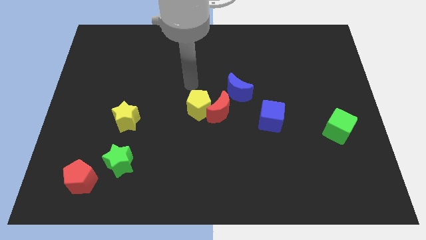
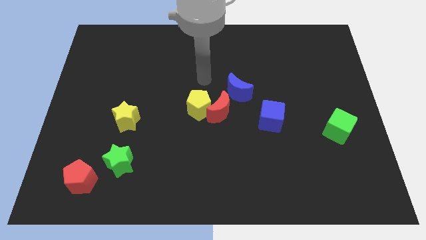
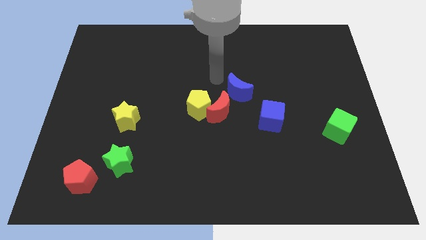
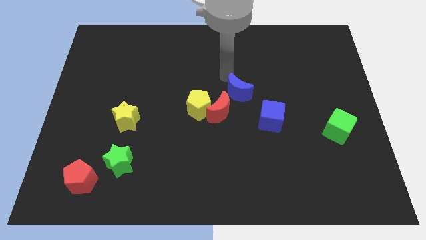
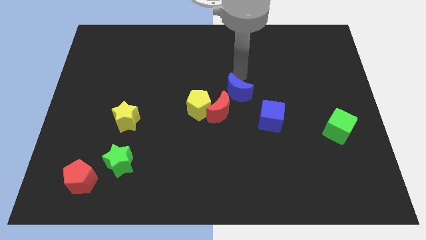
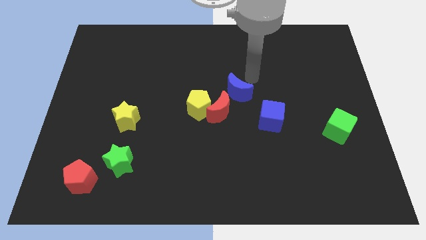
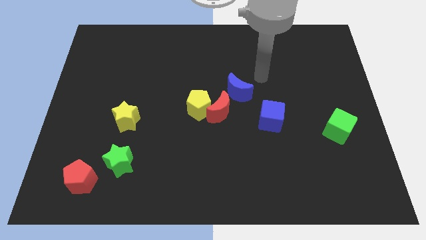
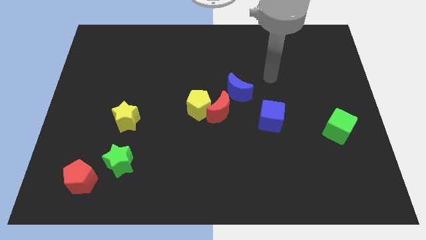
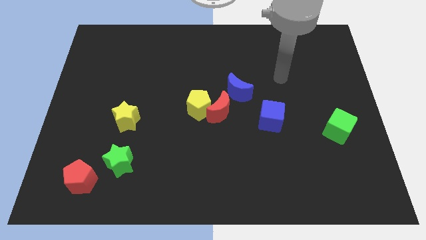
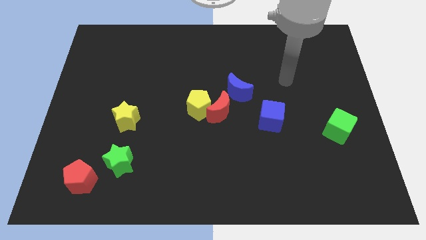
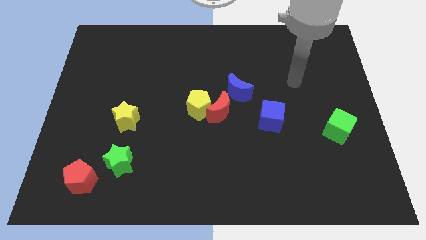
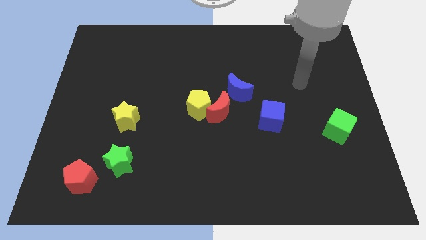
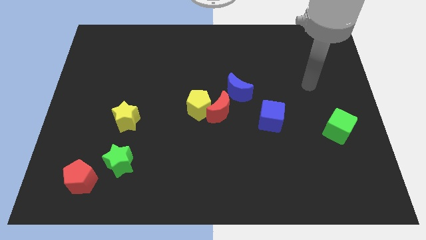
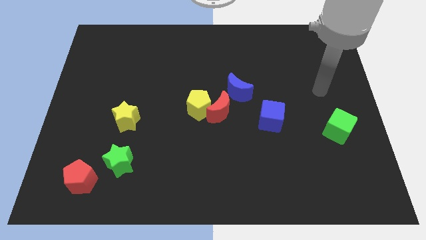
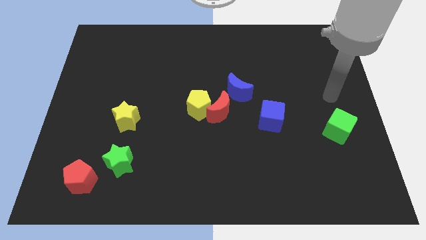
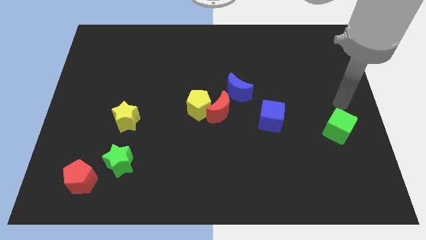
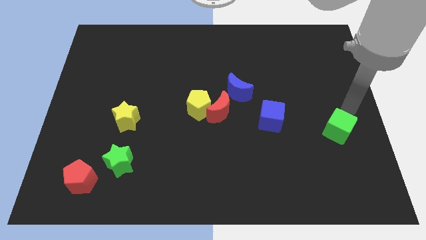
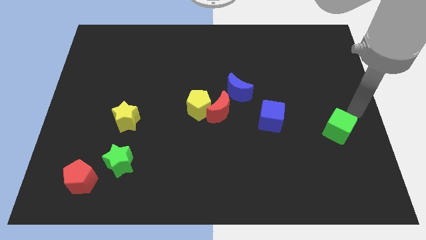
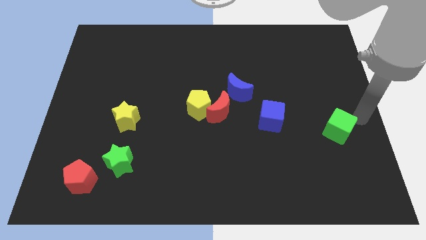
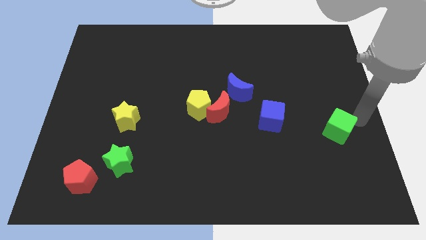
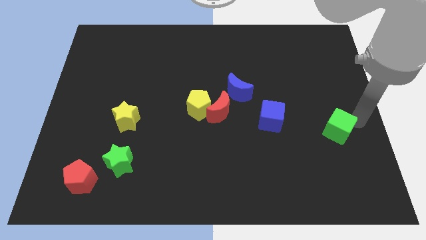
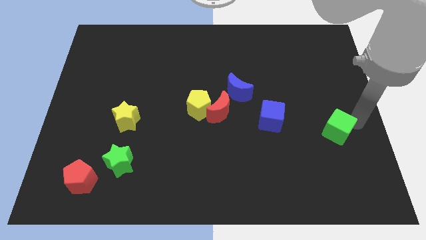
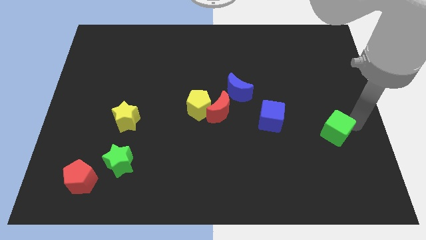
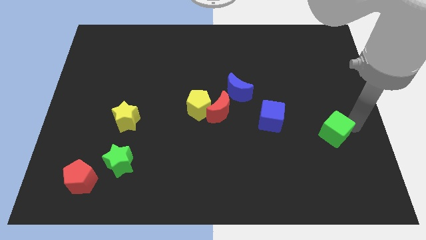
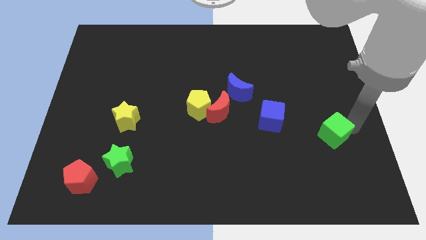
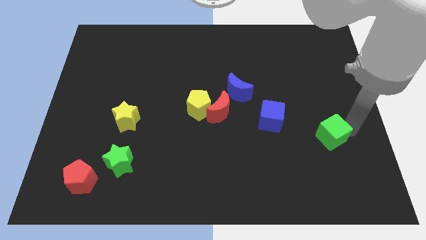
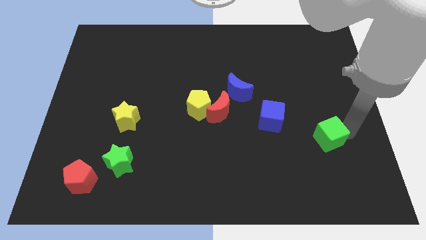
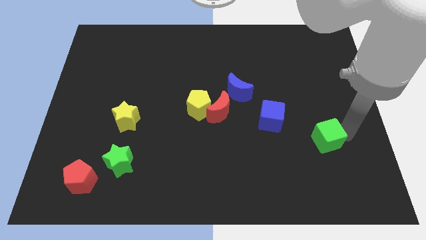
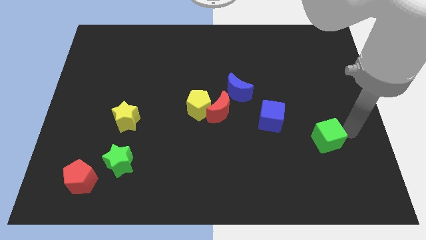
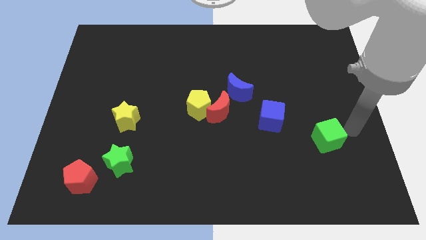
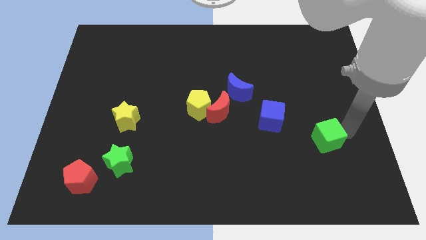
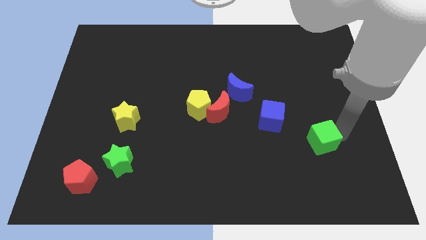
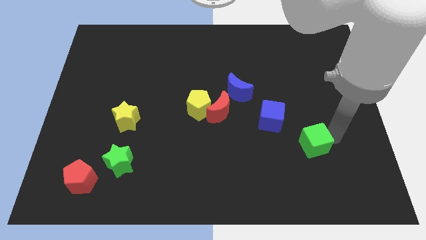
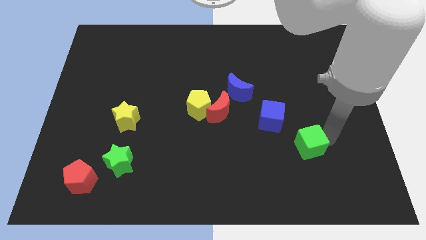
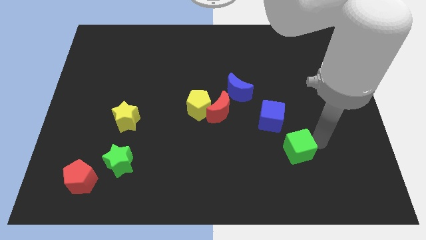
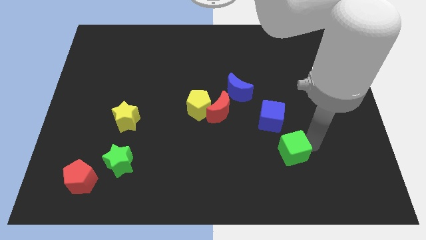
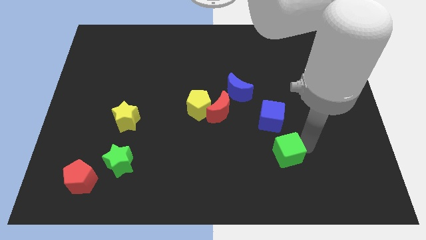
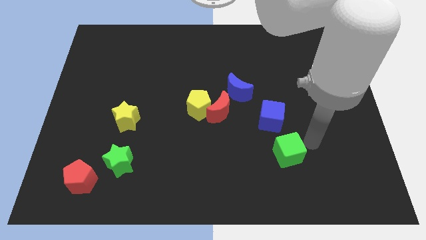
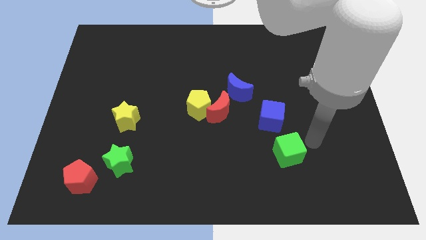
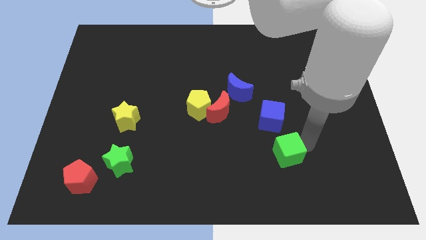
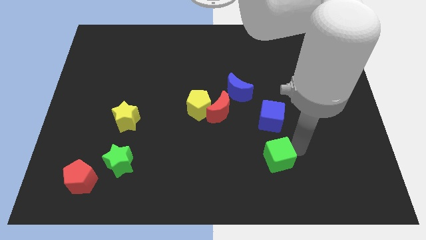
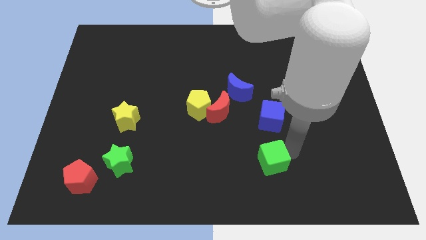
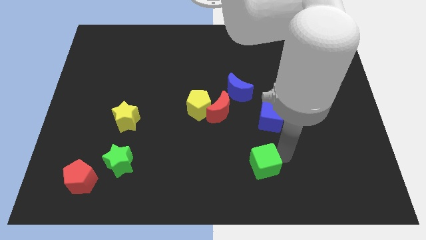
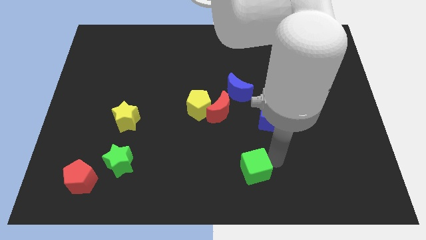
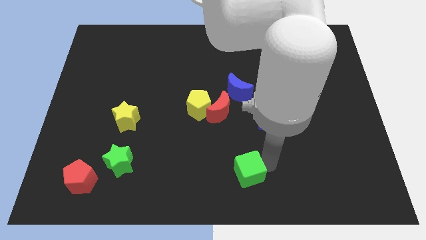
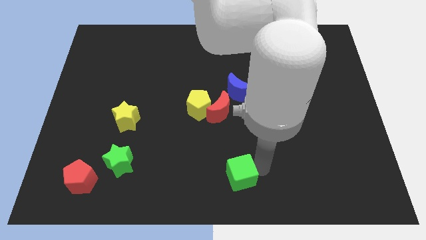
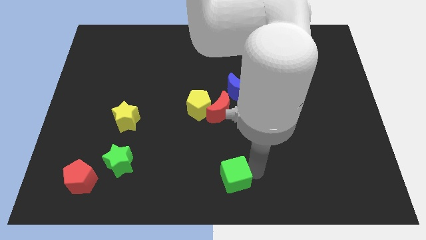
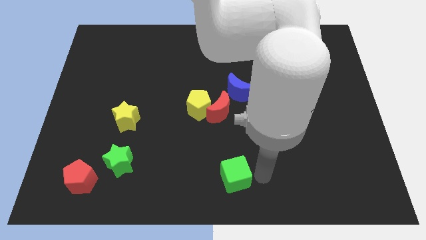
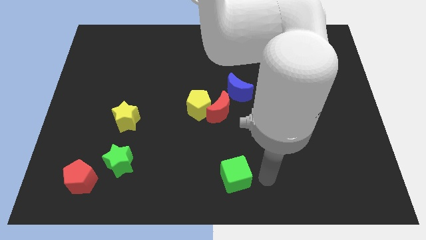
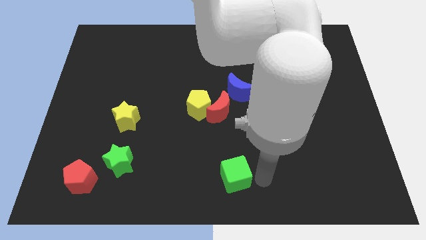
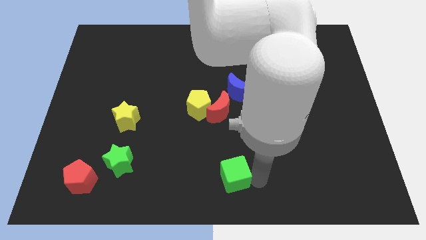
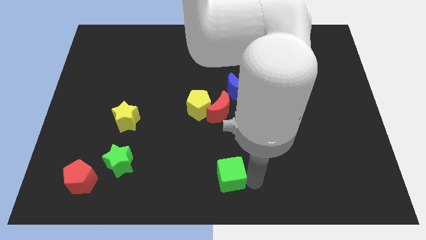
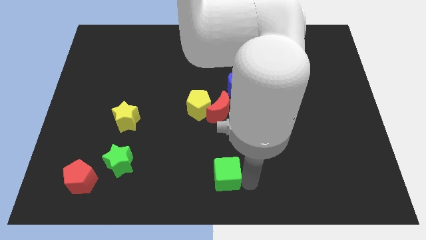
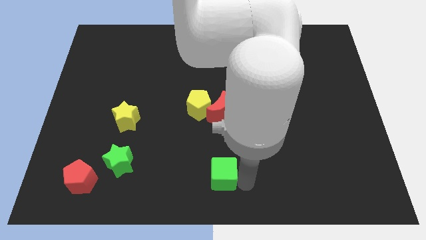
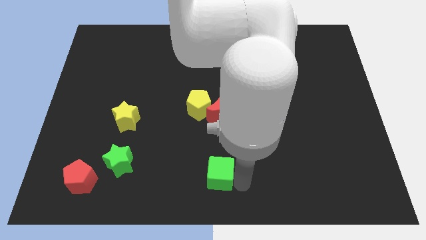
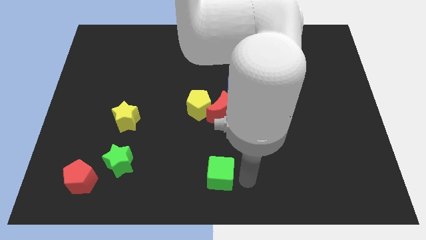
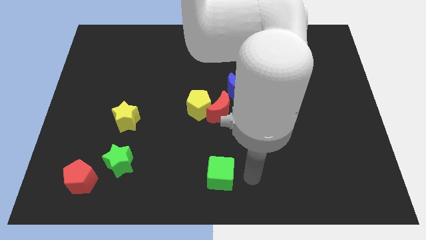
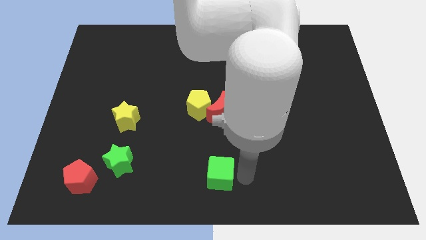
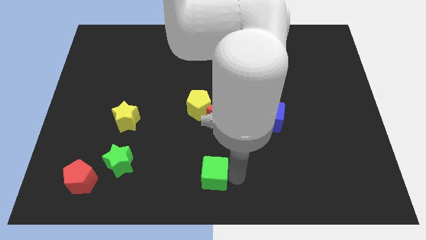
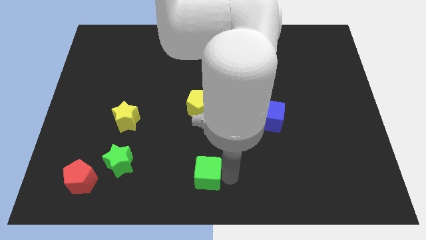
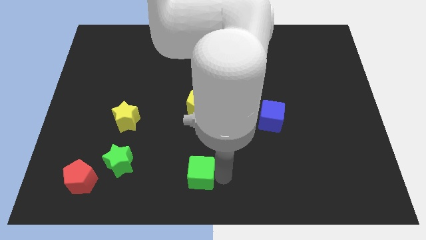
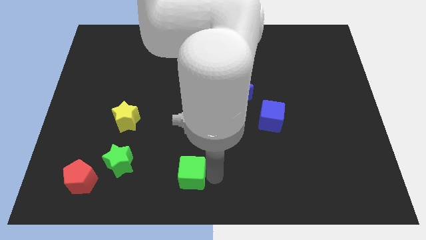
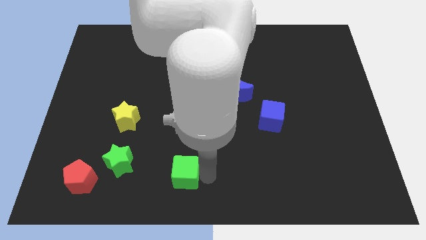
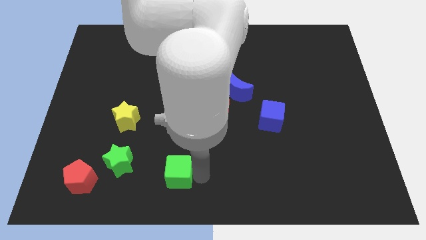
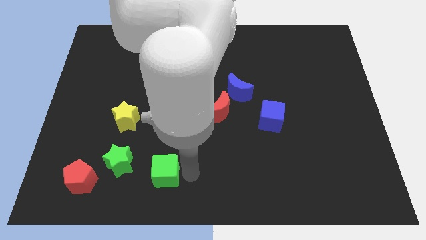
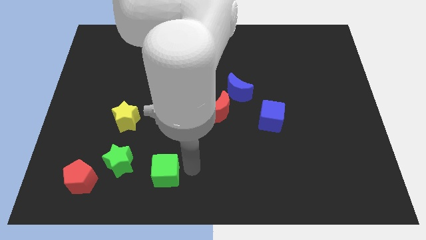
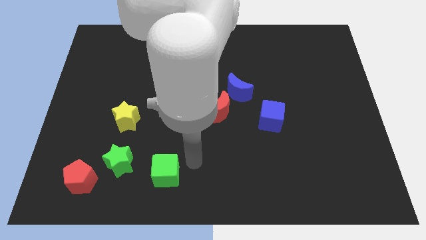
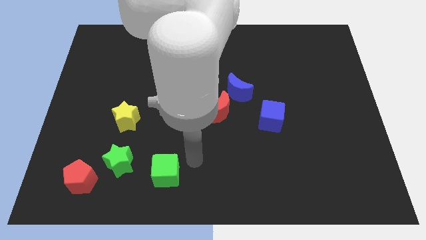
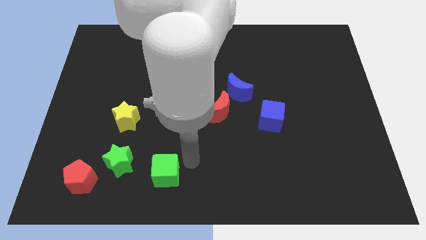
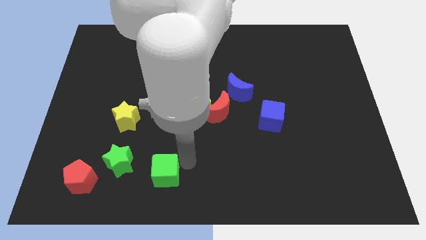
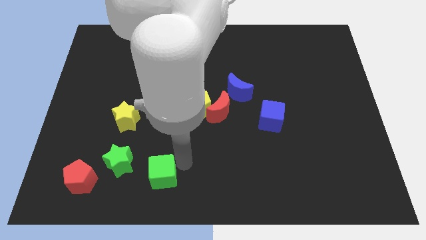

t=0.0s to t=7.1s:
slide the green cube to the bottom right of the green star
